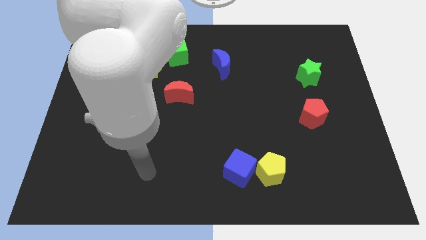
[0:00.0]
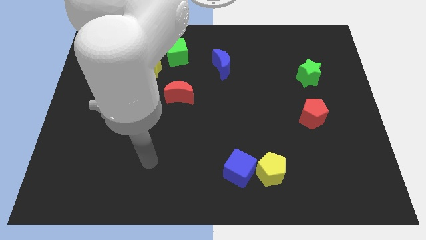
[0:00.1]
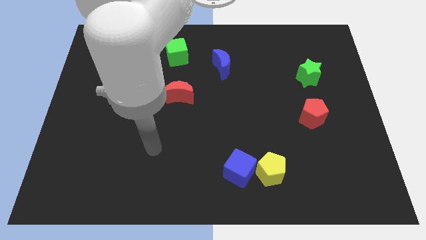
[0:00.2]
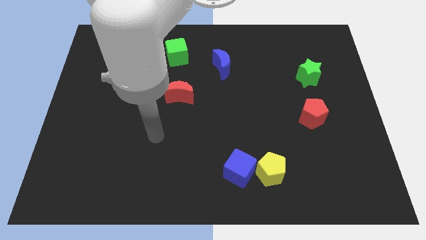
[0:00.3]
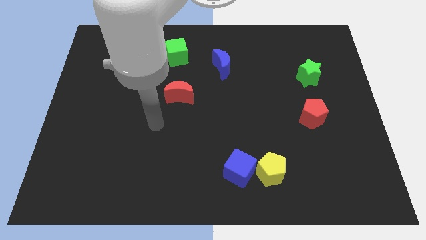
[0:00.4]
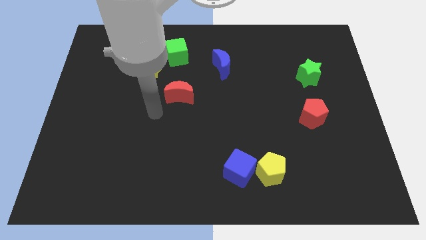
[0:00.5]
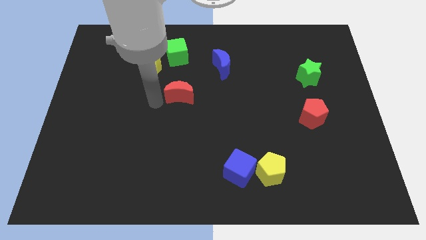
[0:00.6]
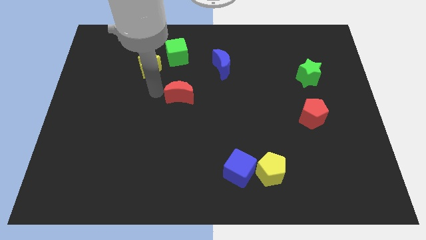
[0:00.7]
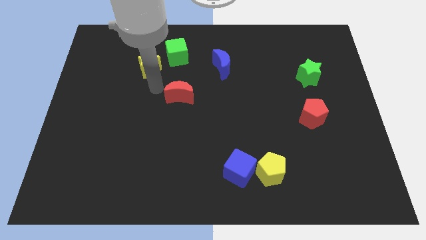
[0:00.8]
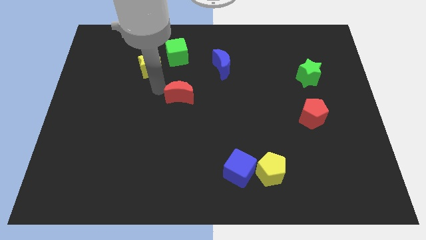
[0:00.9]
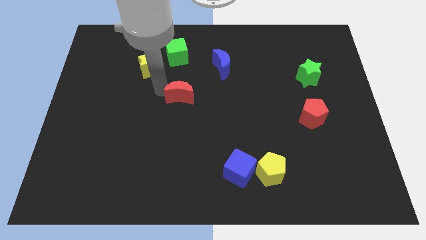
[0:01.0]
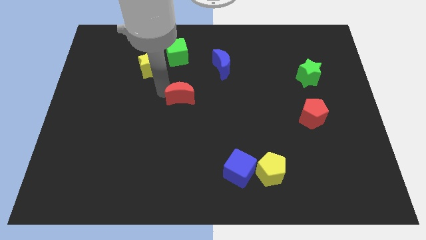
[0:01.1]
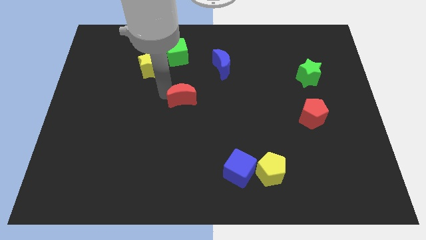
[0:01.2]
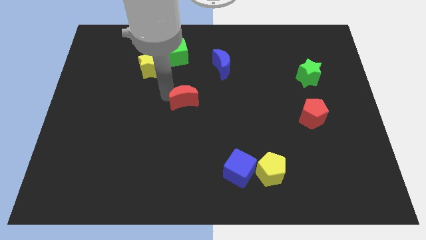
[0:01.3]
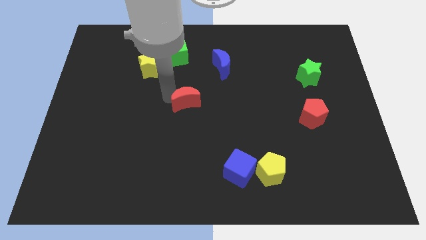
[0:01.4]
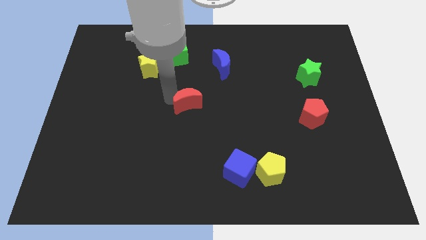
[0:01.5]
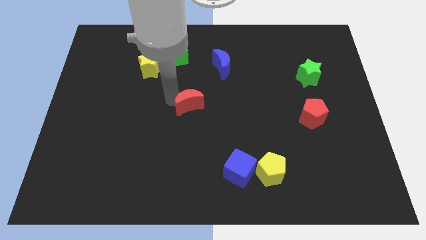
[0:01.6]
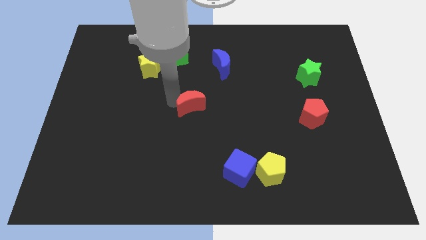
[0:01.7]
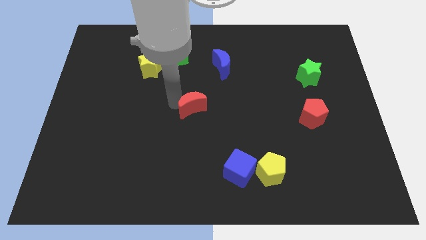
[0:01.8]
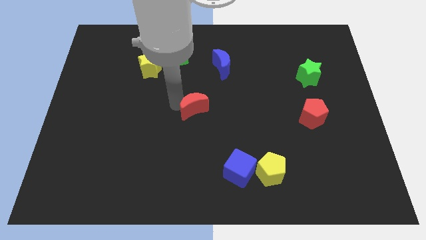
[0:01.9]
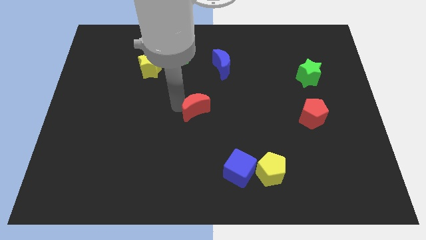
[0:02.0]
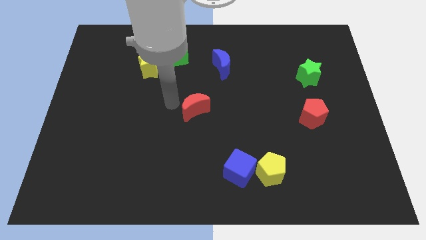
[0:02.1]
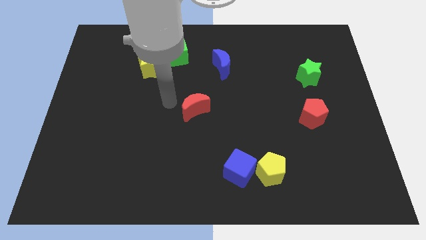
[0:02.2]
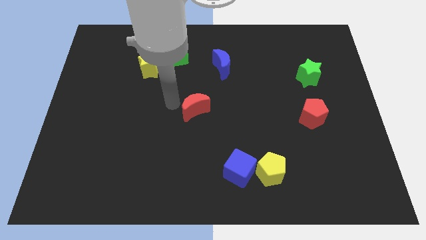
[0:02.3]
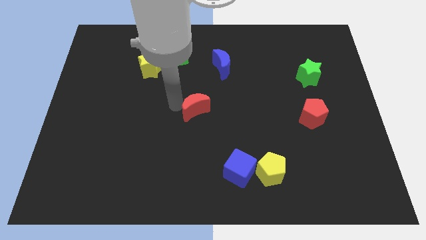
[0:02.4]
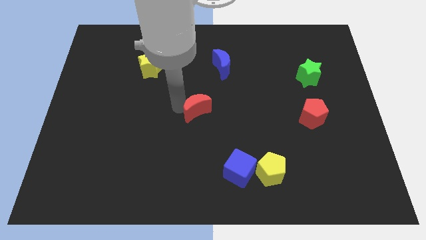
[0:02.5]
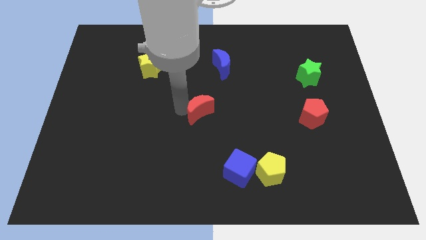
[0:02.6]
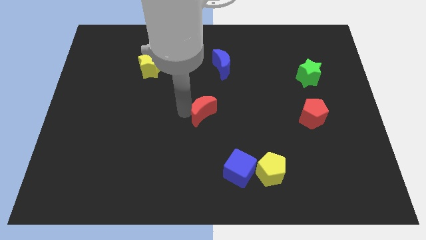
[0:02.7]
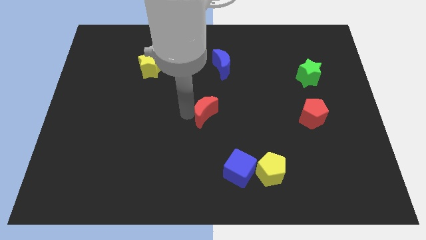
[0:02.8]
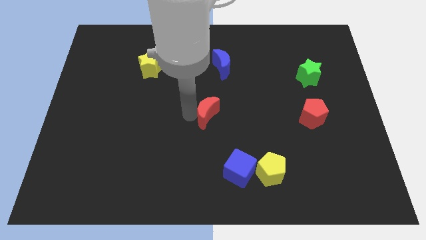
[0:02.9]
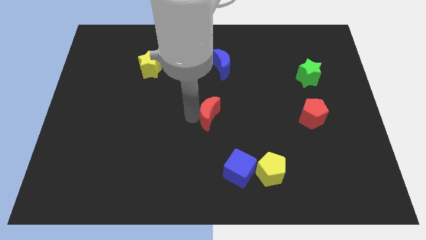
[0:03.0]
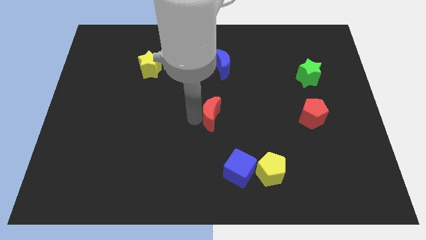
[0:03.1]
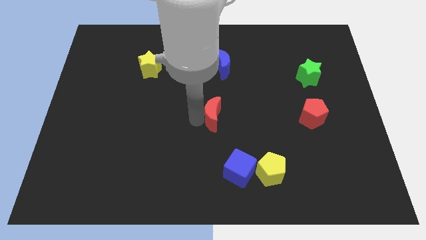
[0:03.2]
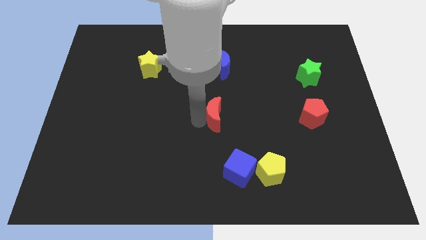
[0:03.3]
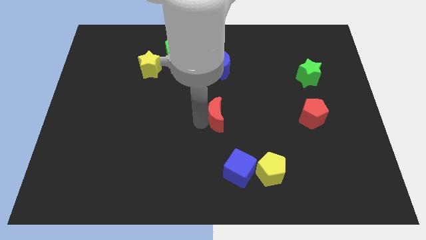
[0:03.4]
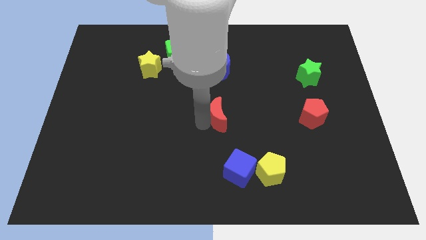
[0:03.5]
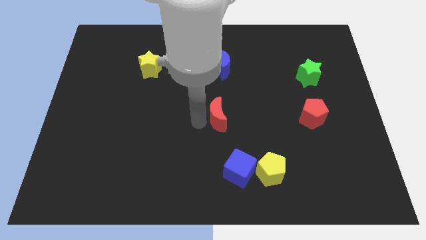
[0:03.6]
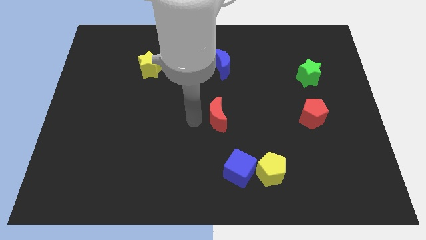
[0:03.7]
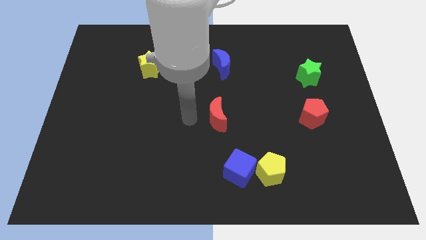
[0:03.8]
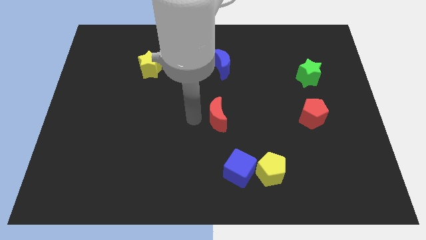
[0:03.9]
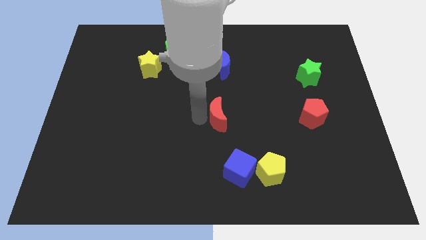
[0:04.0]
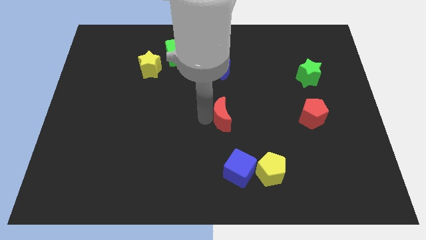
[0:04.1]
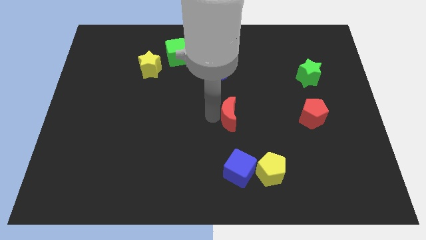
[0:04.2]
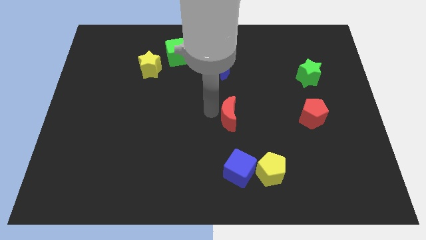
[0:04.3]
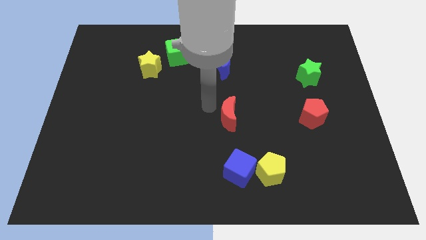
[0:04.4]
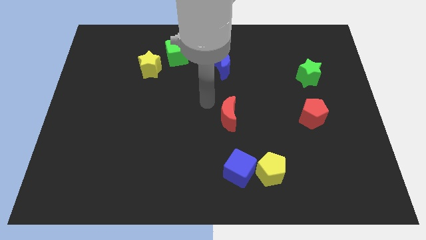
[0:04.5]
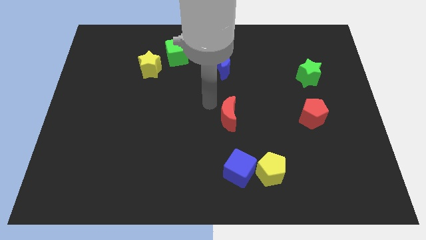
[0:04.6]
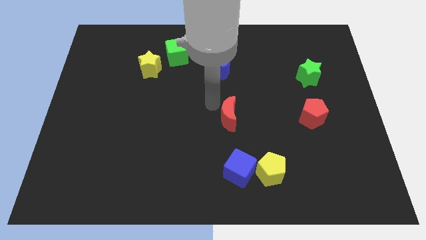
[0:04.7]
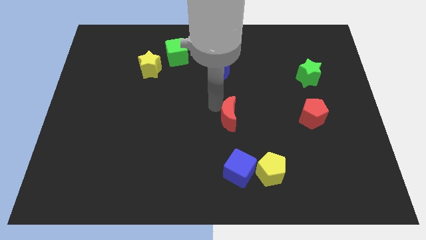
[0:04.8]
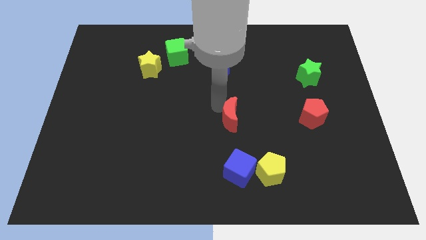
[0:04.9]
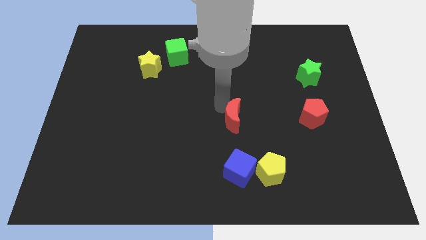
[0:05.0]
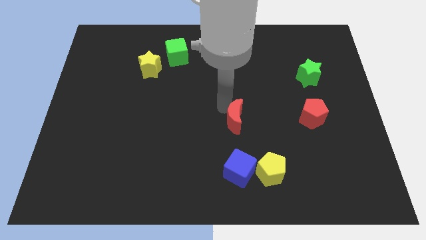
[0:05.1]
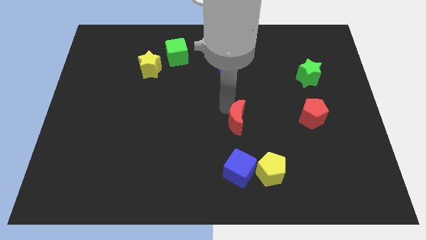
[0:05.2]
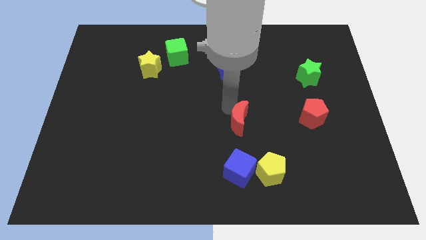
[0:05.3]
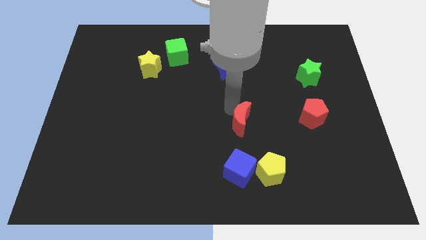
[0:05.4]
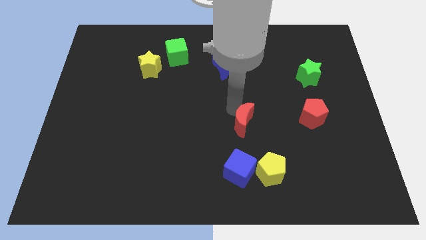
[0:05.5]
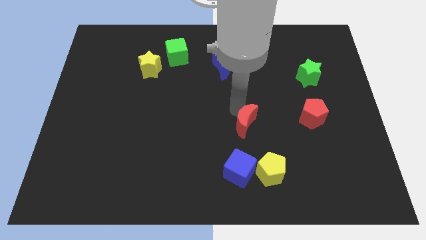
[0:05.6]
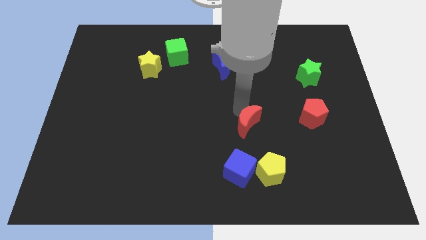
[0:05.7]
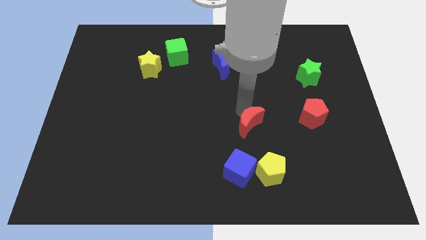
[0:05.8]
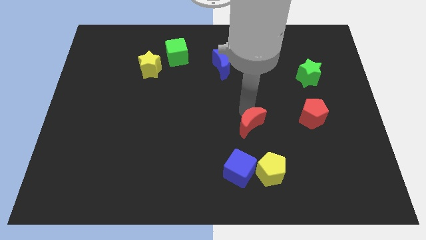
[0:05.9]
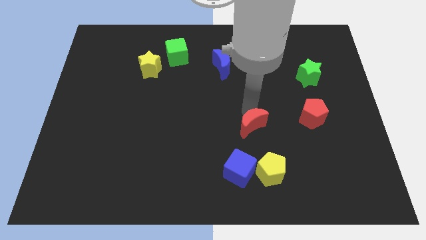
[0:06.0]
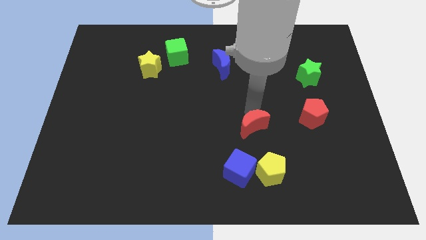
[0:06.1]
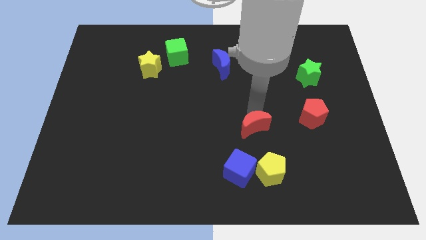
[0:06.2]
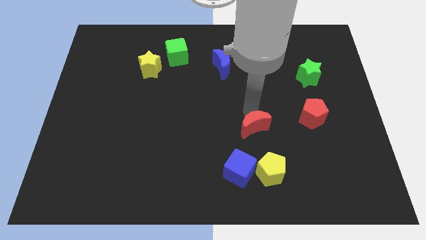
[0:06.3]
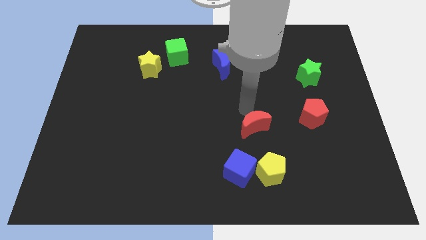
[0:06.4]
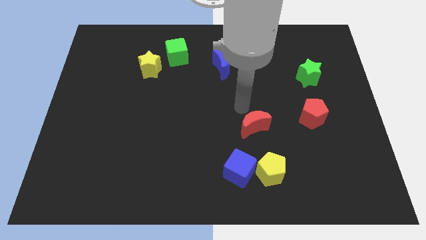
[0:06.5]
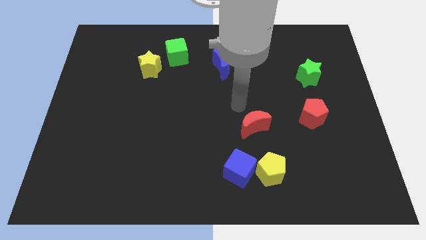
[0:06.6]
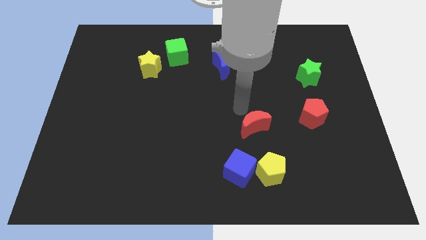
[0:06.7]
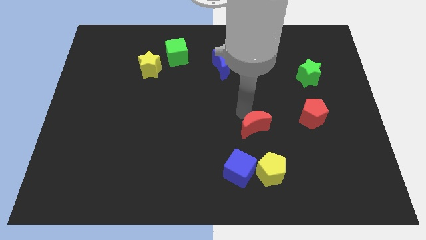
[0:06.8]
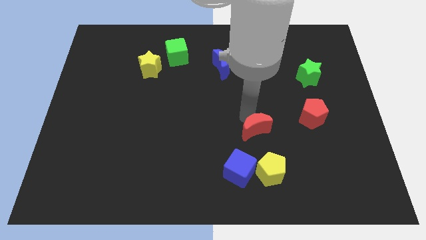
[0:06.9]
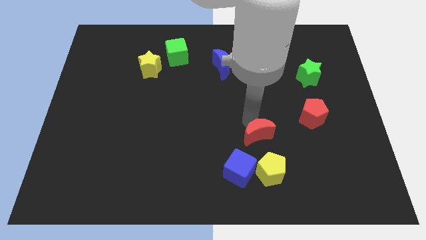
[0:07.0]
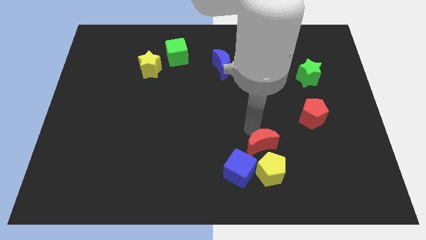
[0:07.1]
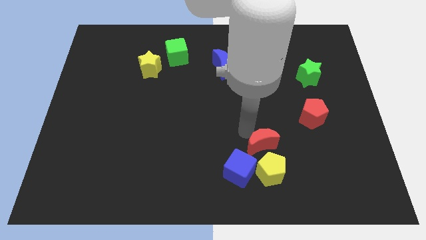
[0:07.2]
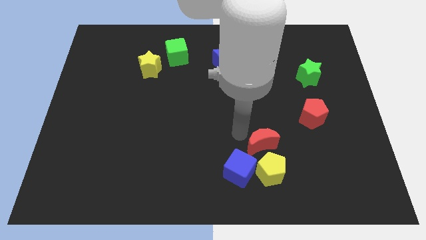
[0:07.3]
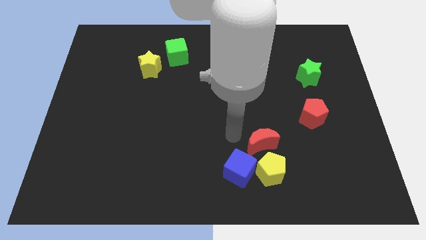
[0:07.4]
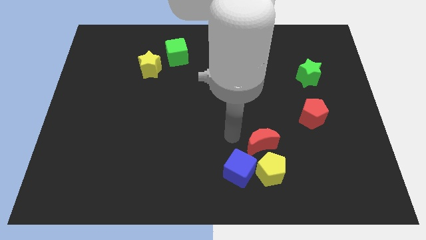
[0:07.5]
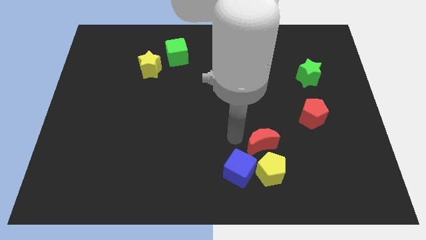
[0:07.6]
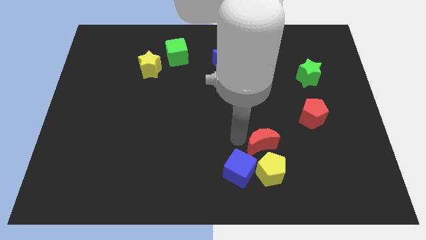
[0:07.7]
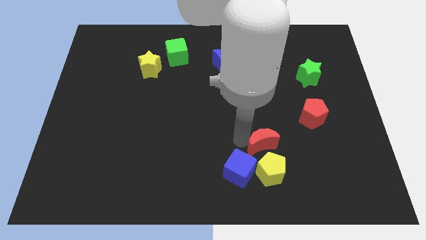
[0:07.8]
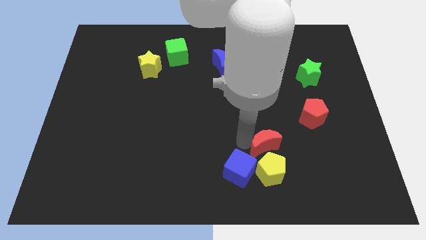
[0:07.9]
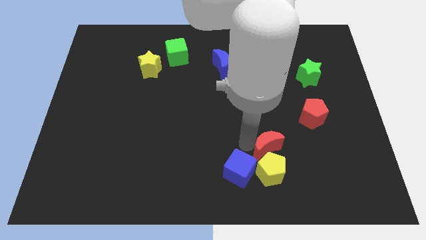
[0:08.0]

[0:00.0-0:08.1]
slide the red moon diagonally up and to the right of the yellow pentagon
